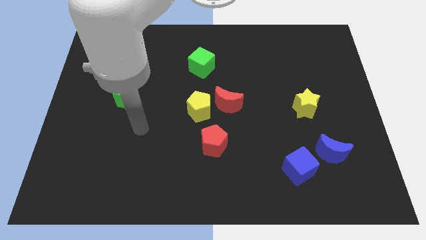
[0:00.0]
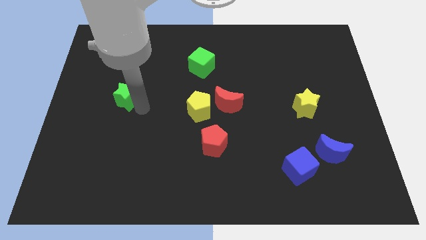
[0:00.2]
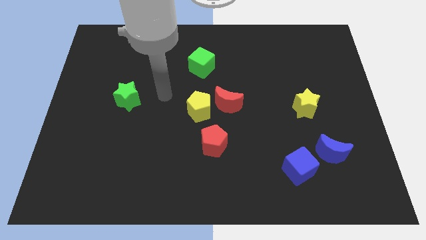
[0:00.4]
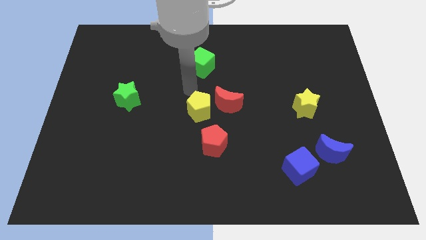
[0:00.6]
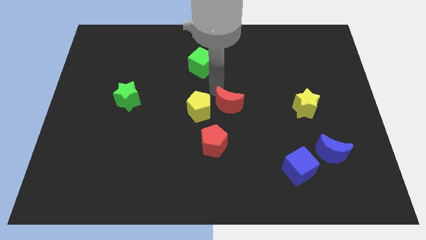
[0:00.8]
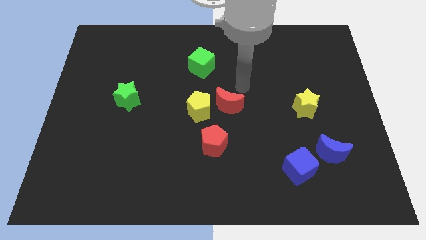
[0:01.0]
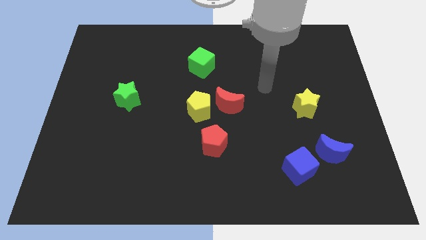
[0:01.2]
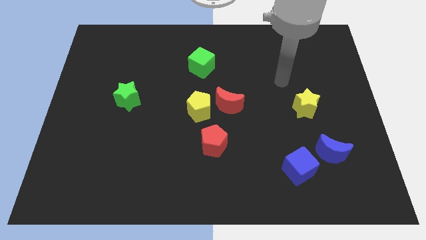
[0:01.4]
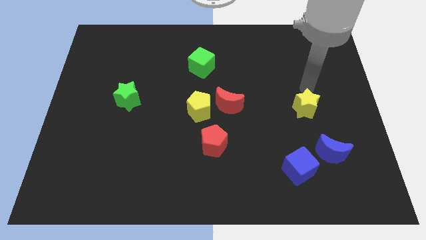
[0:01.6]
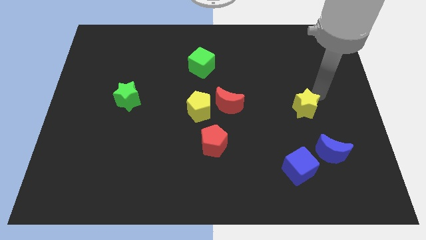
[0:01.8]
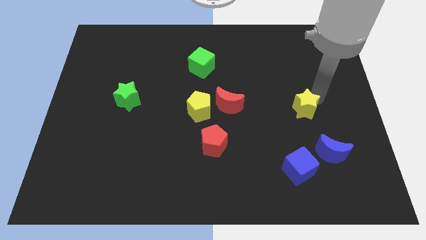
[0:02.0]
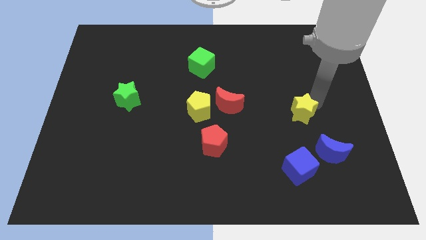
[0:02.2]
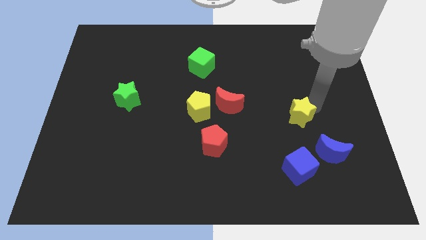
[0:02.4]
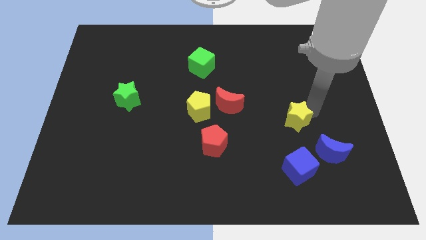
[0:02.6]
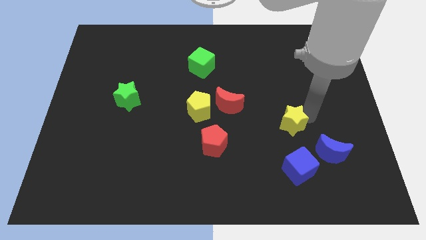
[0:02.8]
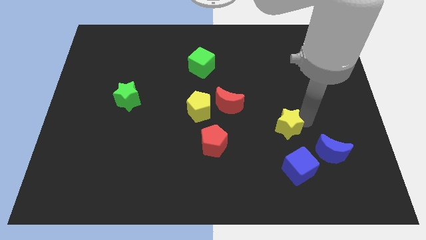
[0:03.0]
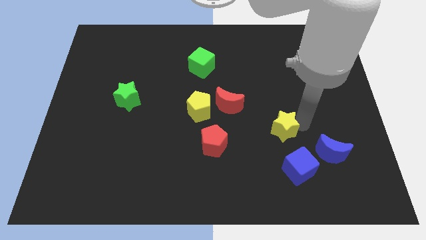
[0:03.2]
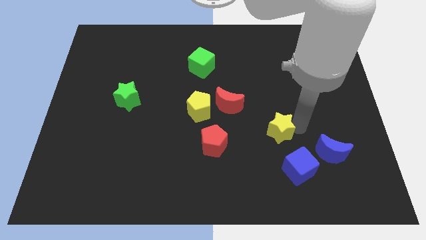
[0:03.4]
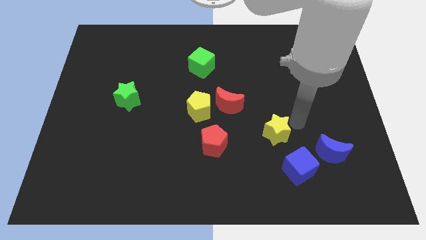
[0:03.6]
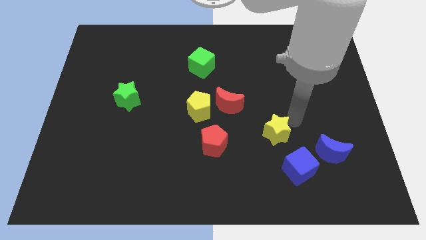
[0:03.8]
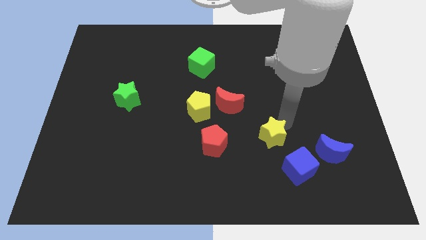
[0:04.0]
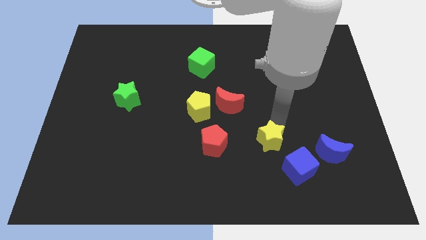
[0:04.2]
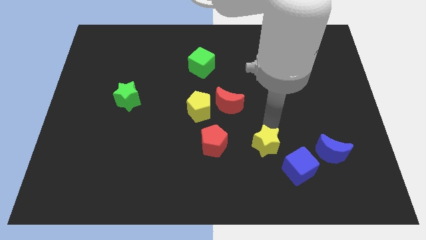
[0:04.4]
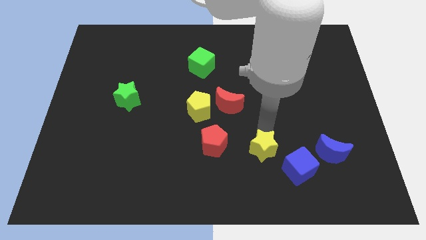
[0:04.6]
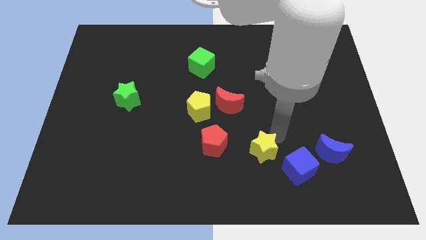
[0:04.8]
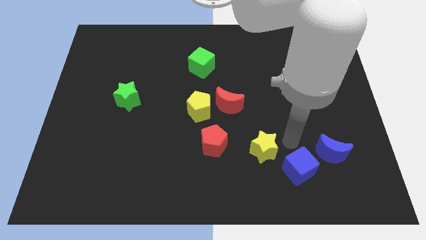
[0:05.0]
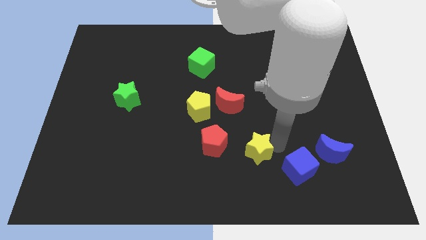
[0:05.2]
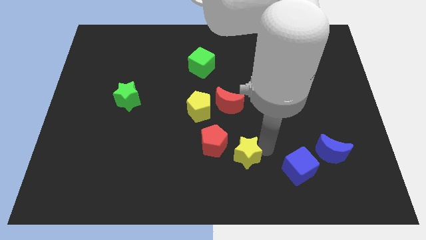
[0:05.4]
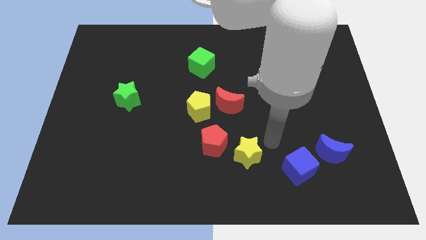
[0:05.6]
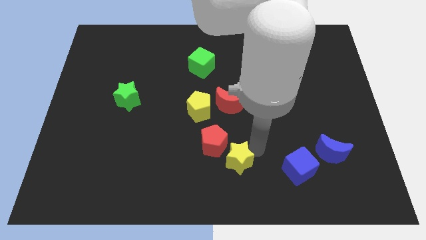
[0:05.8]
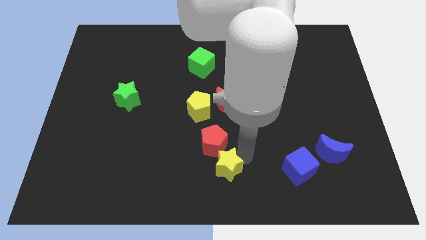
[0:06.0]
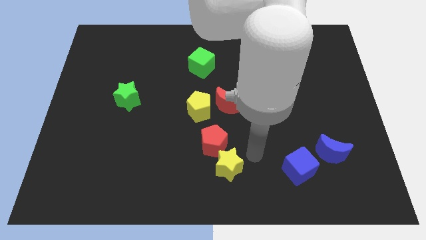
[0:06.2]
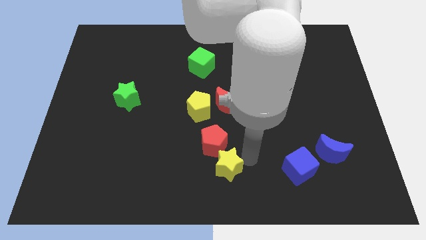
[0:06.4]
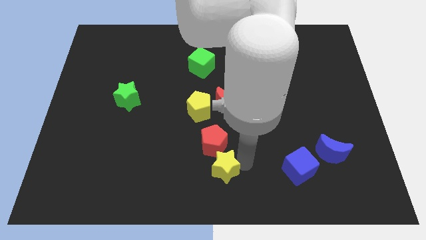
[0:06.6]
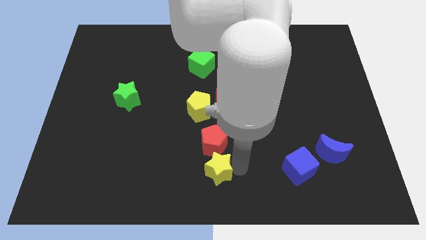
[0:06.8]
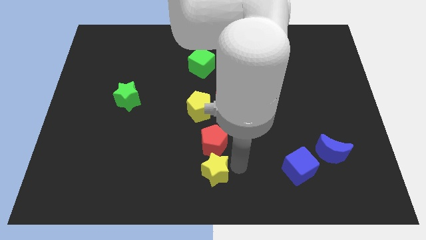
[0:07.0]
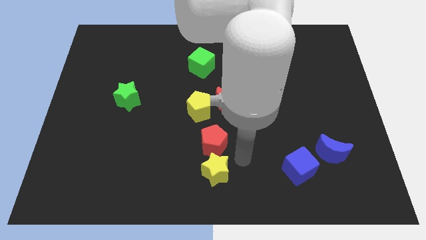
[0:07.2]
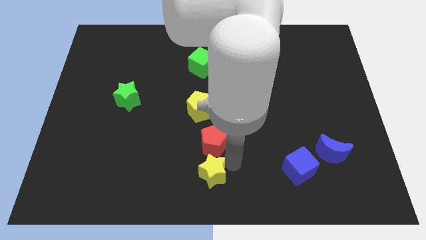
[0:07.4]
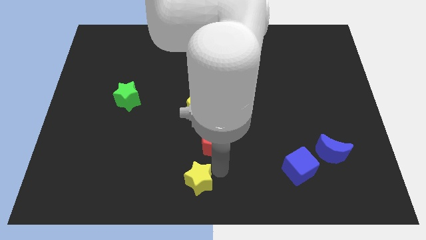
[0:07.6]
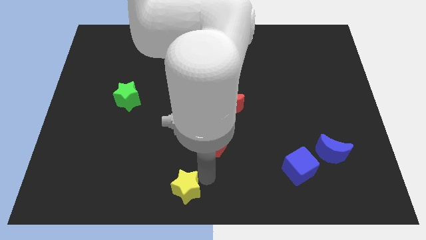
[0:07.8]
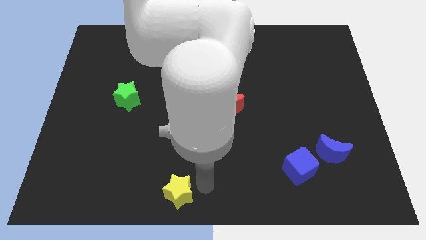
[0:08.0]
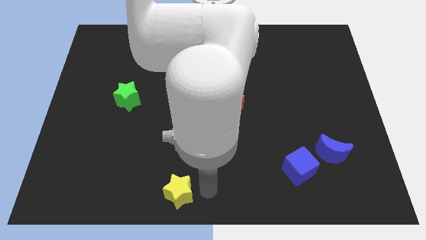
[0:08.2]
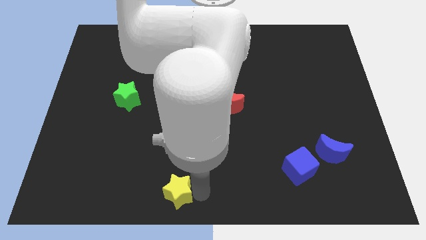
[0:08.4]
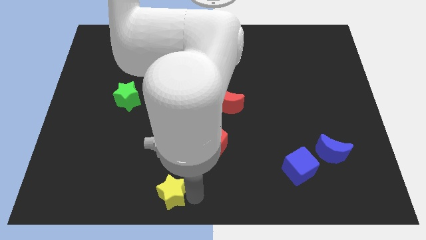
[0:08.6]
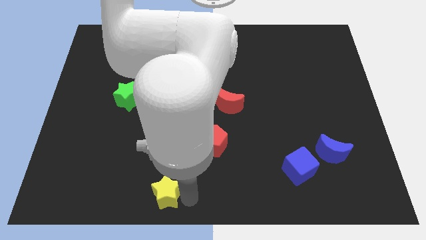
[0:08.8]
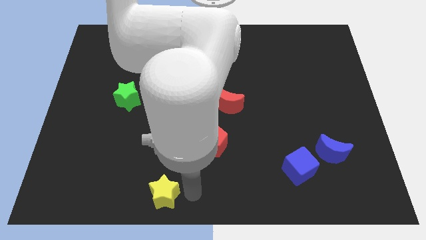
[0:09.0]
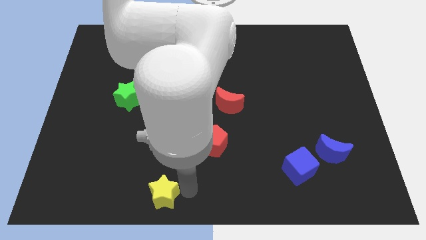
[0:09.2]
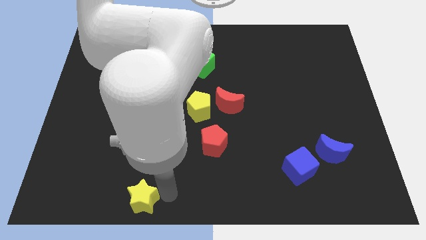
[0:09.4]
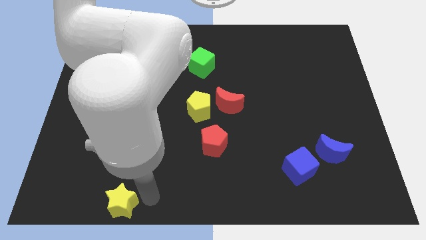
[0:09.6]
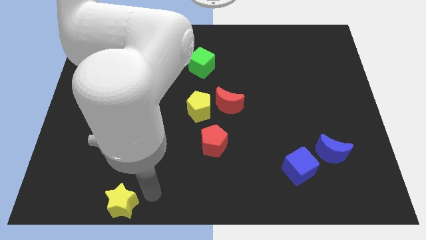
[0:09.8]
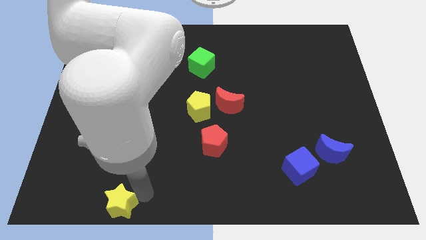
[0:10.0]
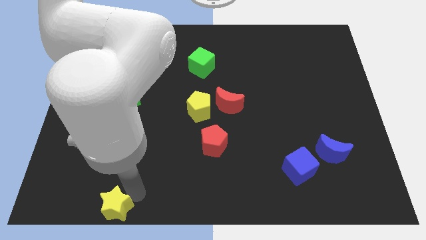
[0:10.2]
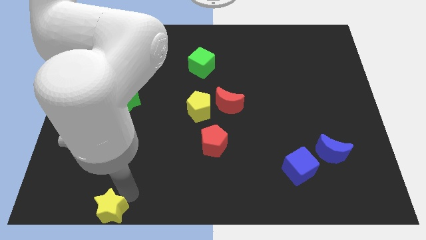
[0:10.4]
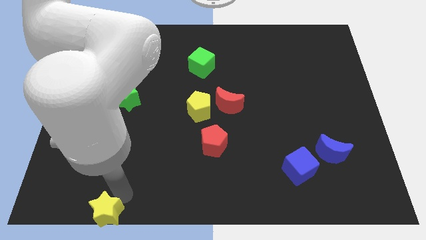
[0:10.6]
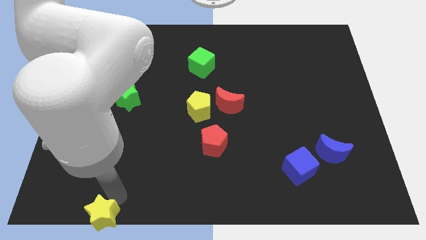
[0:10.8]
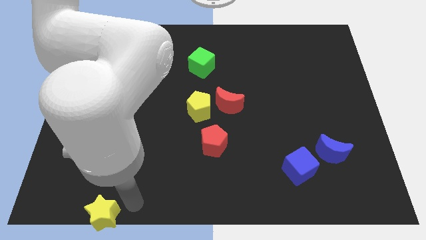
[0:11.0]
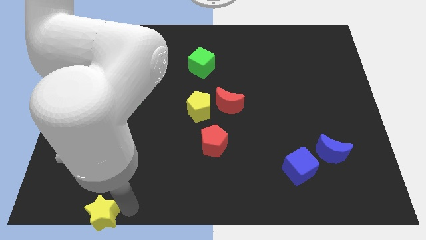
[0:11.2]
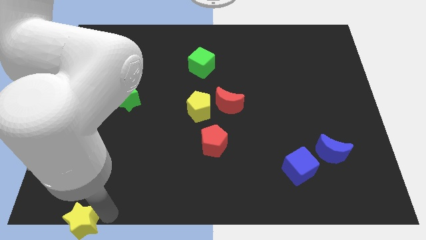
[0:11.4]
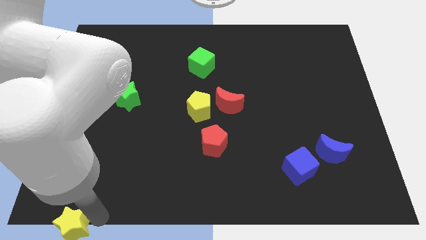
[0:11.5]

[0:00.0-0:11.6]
move the yellow star to the lower left corner
